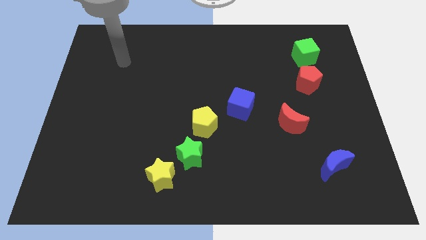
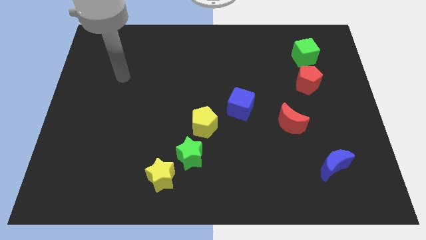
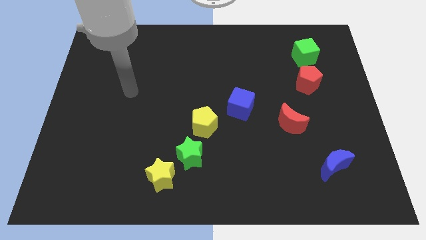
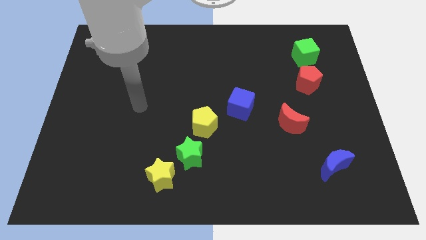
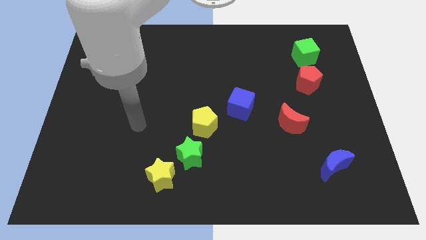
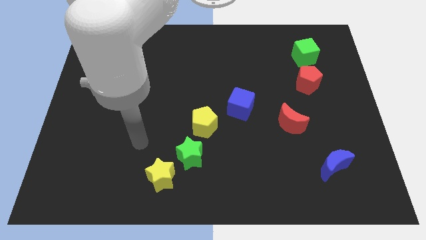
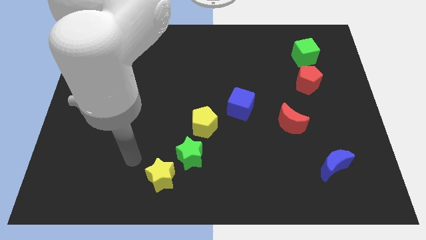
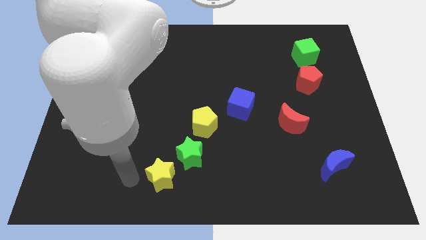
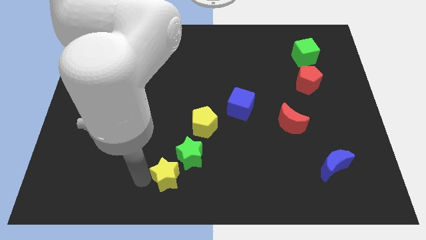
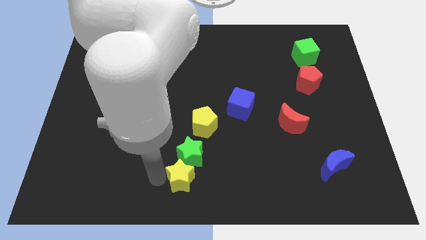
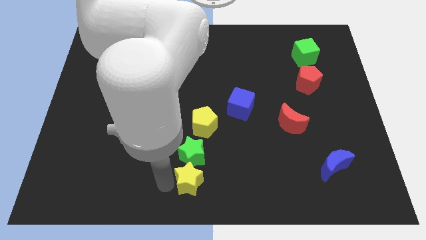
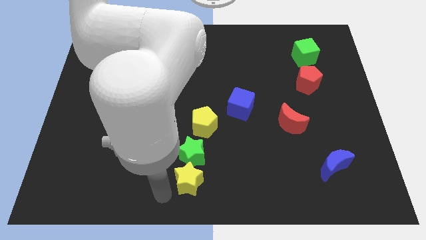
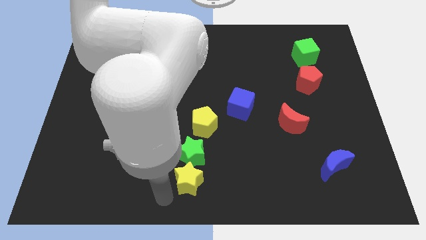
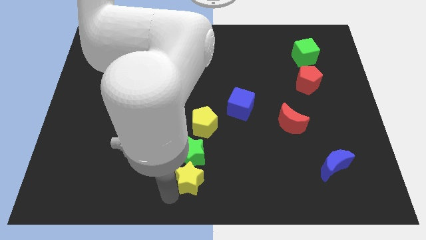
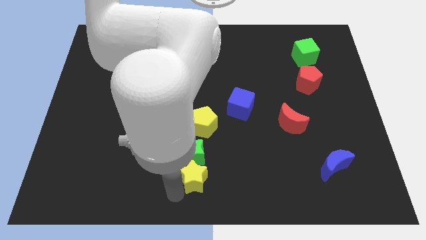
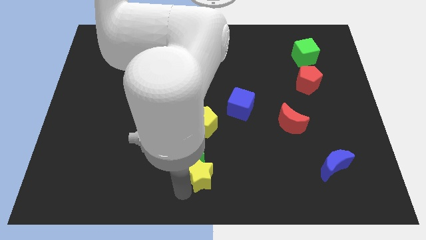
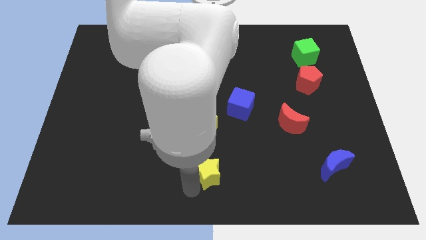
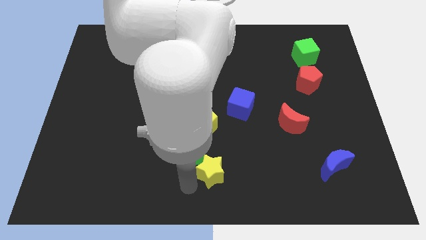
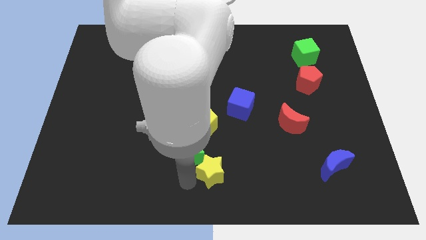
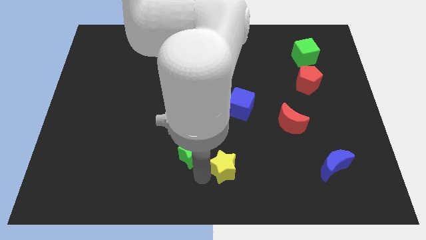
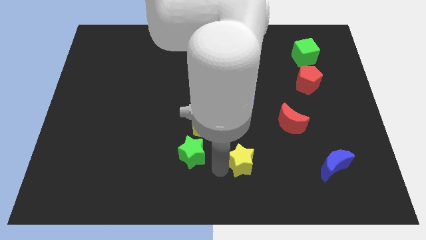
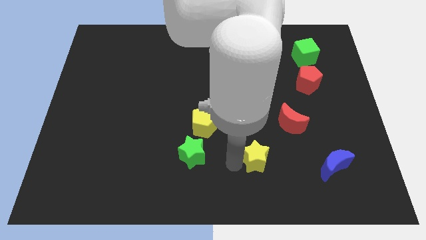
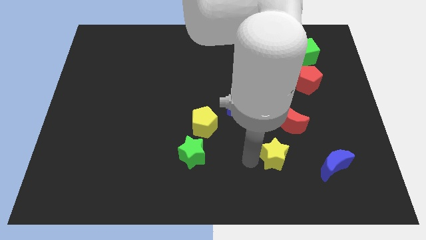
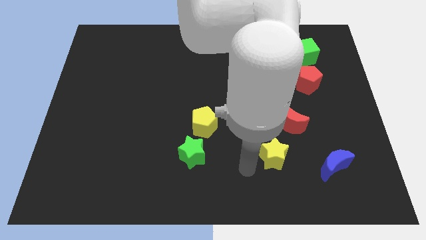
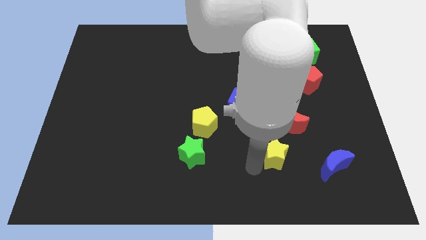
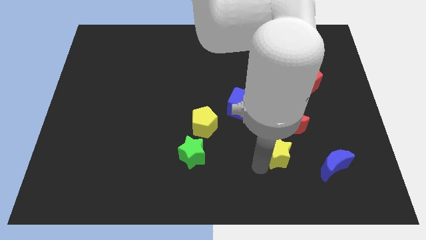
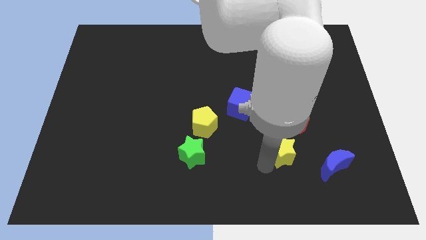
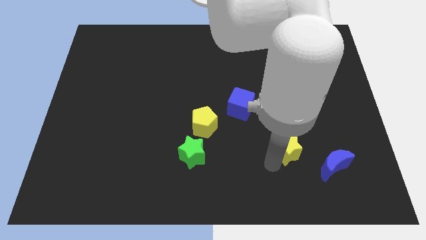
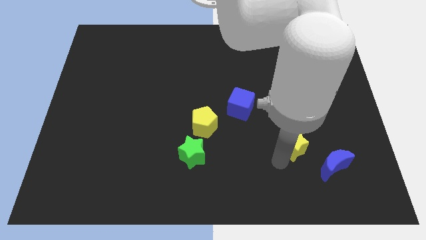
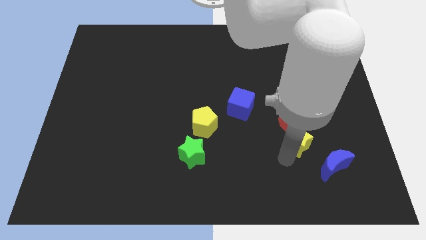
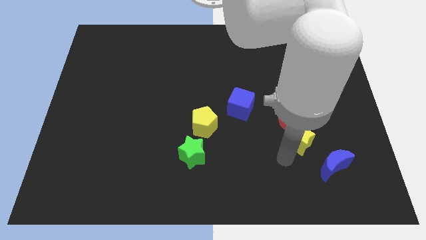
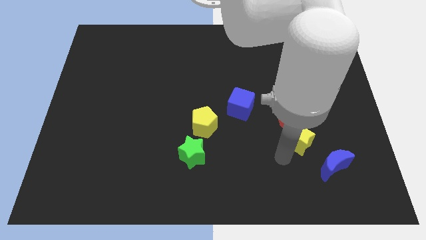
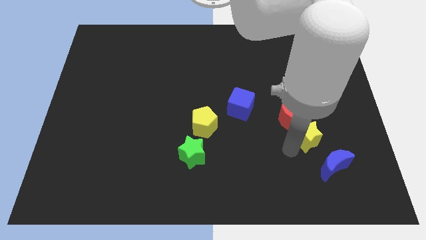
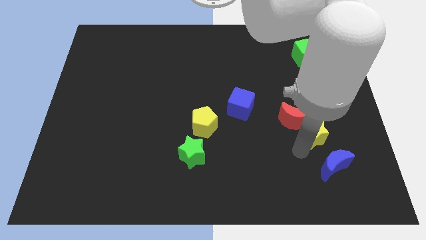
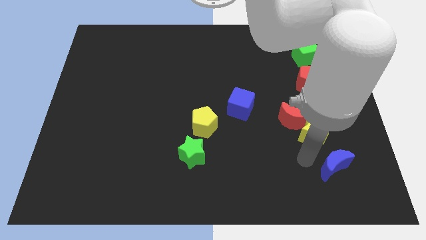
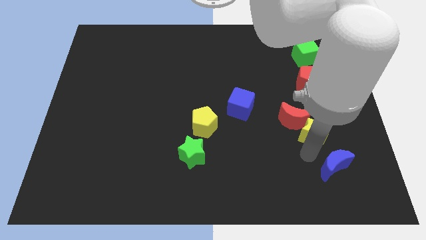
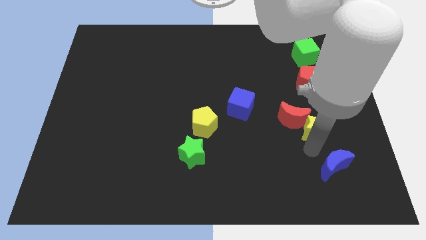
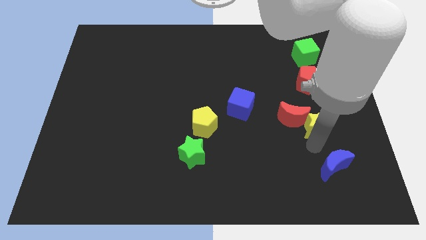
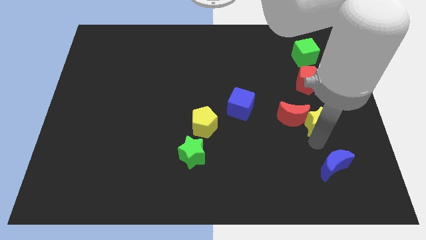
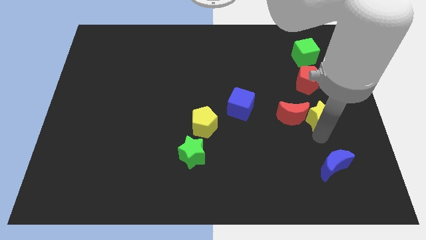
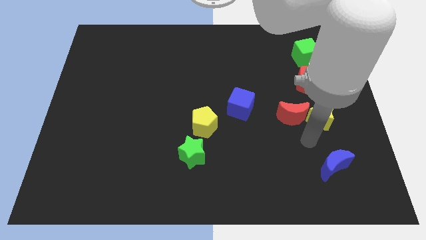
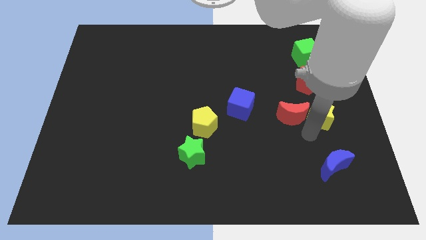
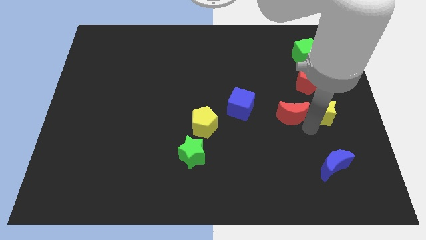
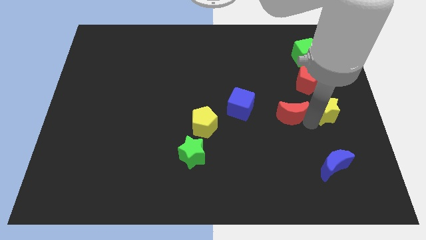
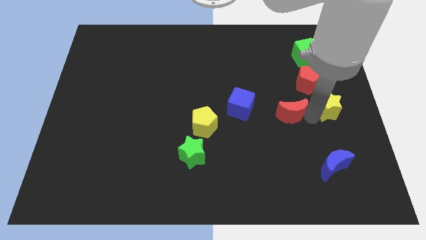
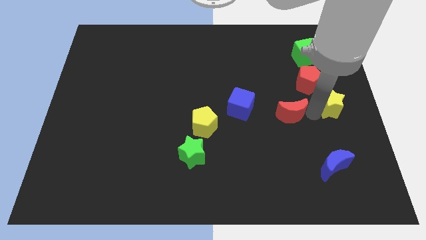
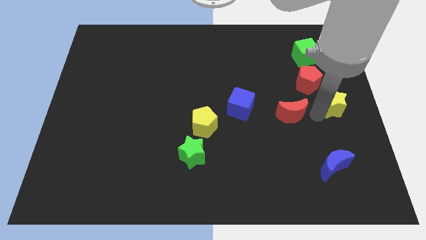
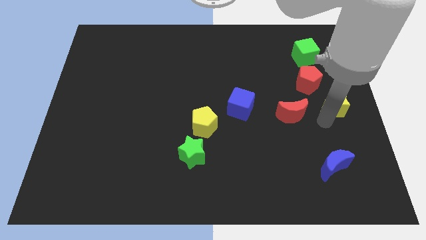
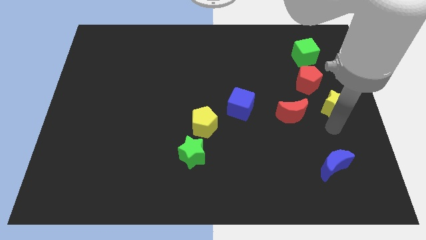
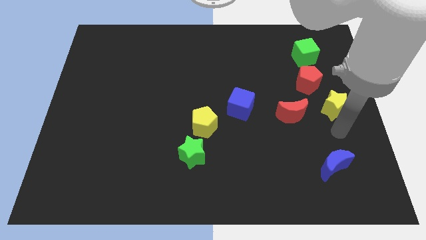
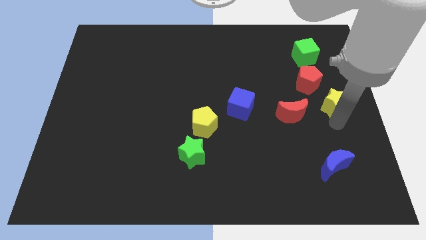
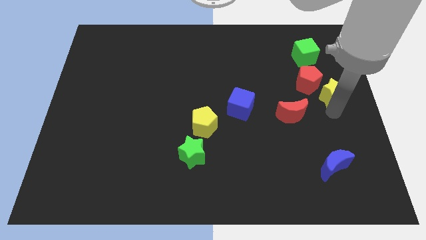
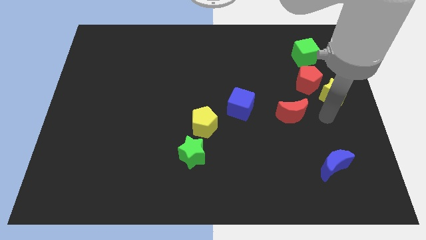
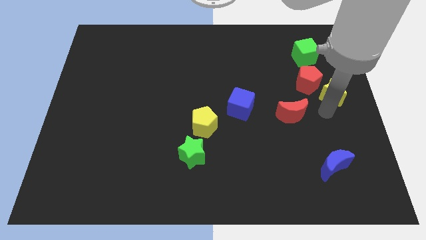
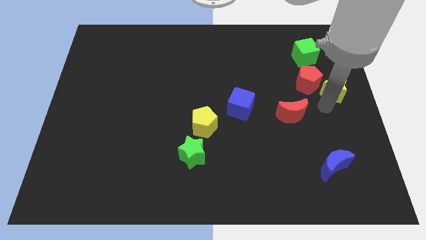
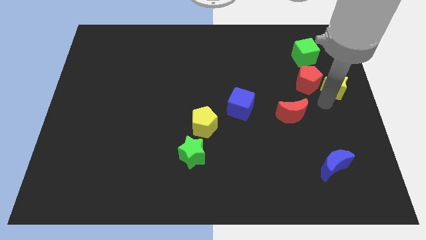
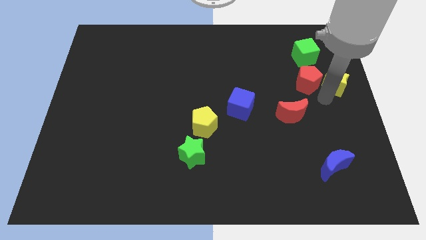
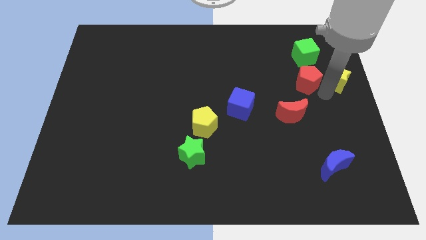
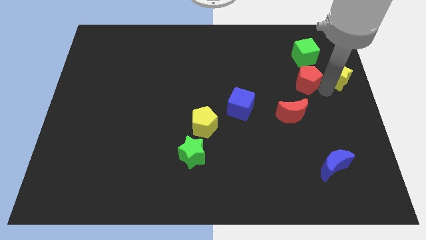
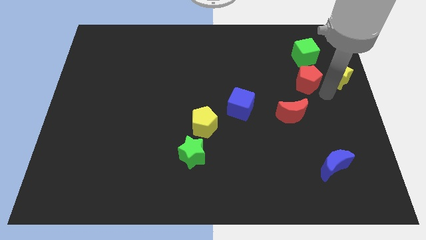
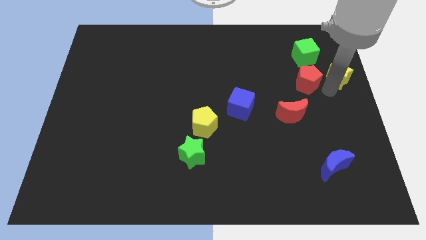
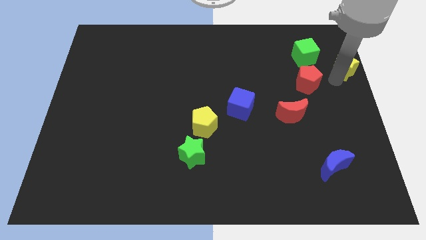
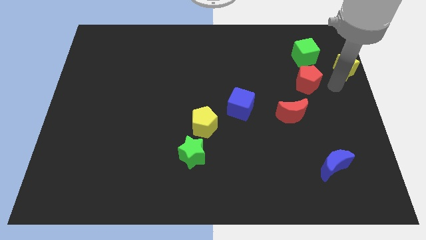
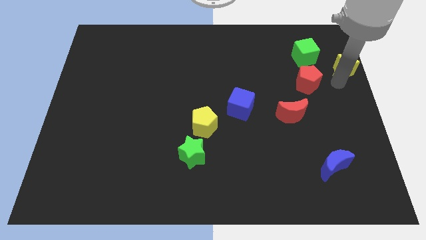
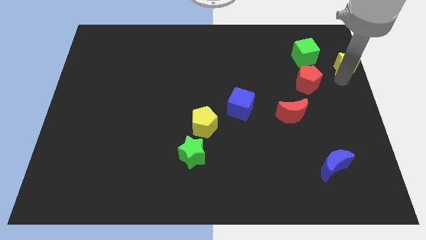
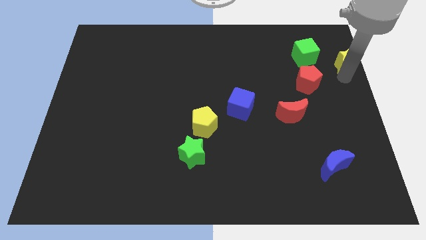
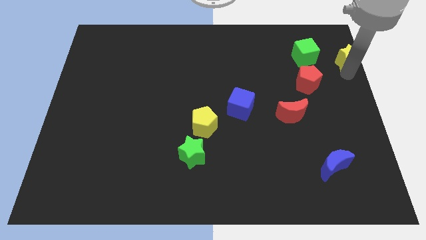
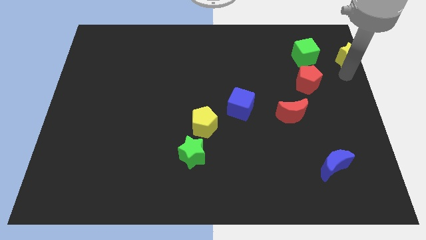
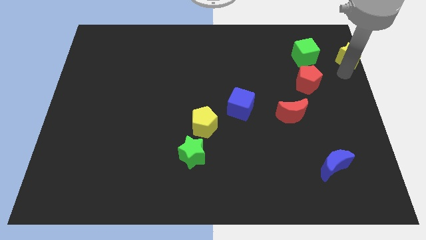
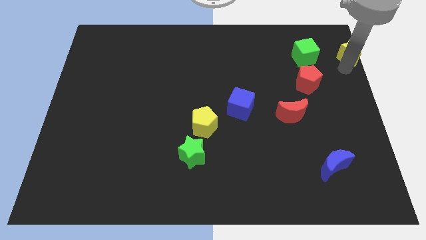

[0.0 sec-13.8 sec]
move the yellow star to the top right
